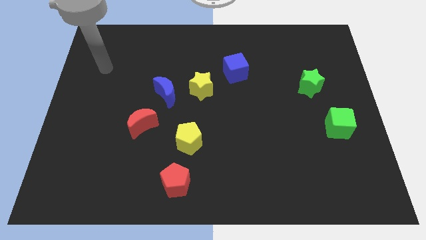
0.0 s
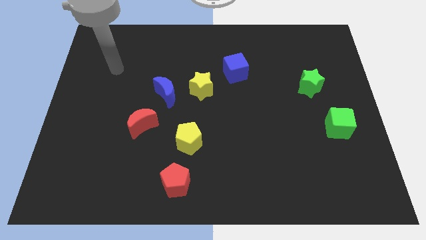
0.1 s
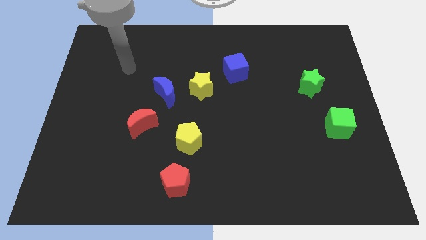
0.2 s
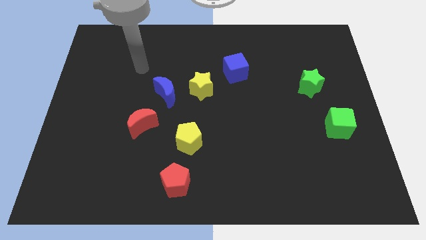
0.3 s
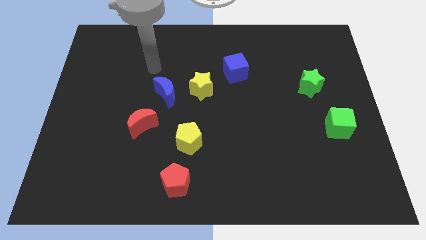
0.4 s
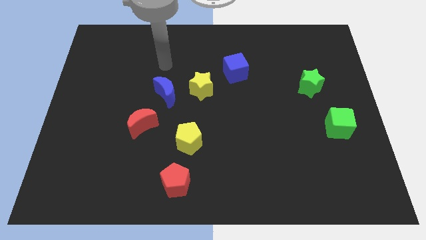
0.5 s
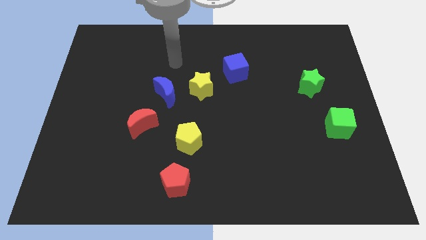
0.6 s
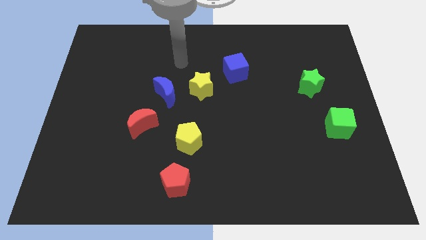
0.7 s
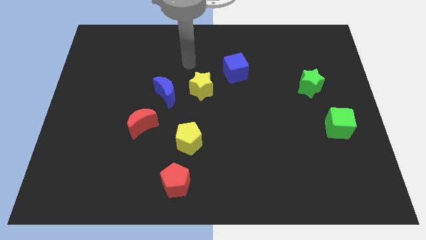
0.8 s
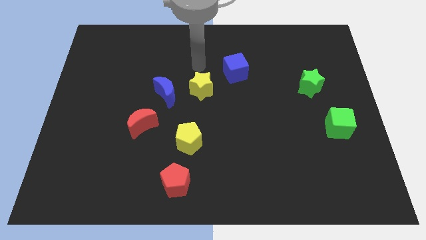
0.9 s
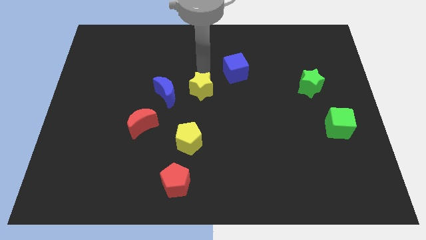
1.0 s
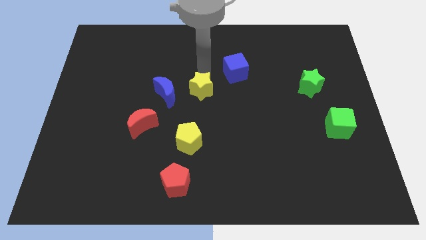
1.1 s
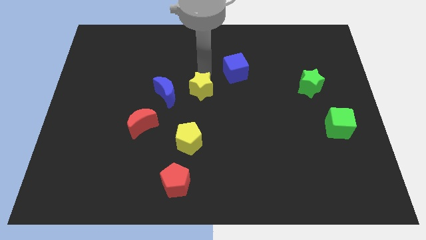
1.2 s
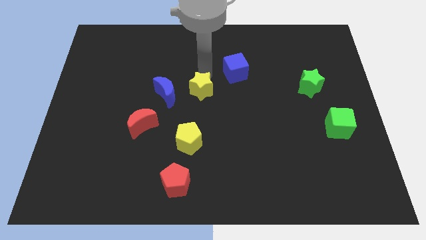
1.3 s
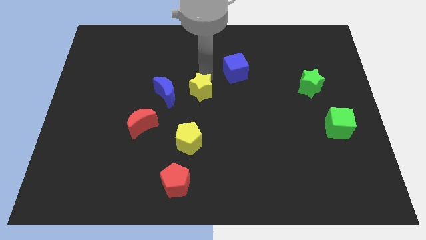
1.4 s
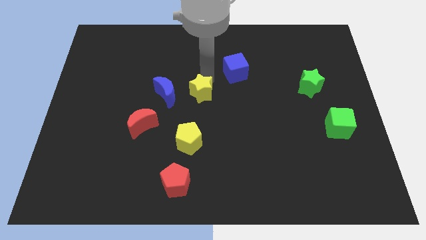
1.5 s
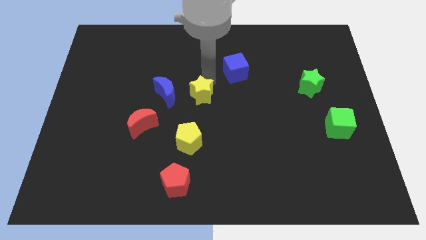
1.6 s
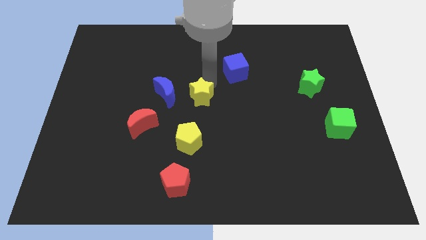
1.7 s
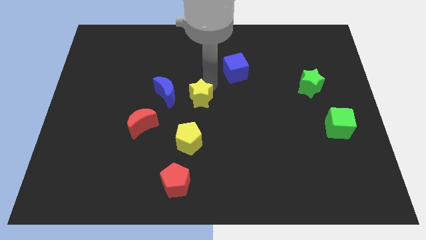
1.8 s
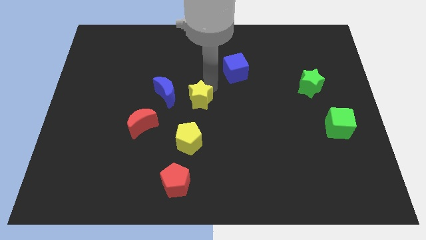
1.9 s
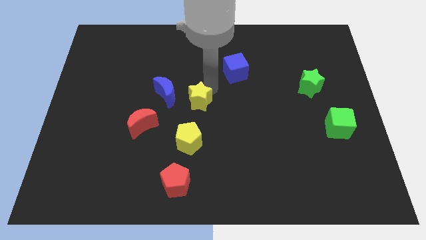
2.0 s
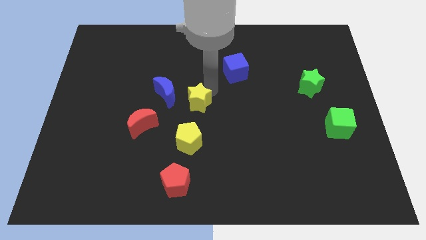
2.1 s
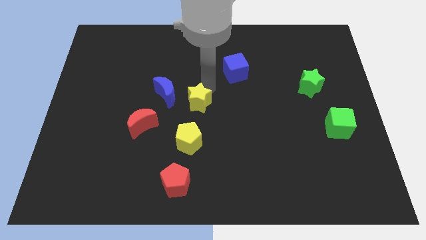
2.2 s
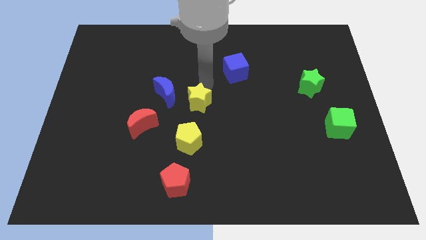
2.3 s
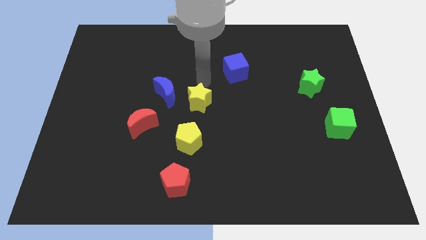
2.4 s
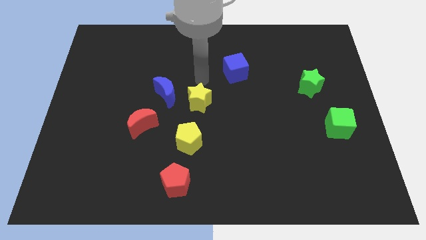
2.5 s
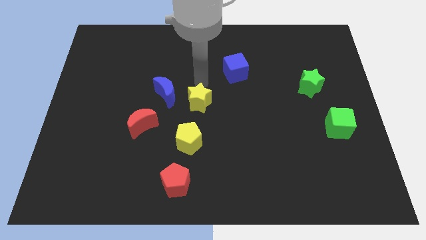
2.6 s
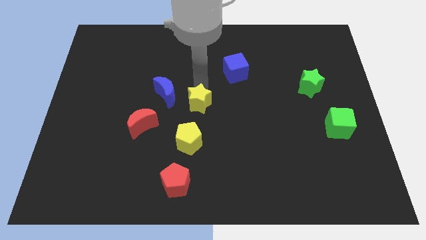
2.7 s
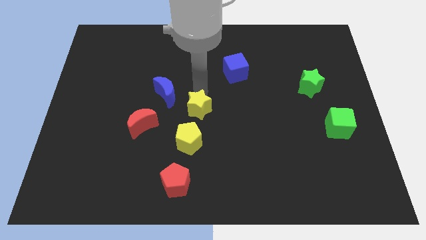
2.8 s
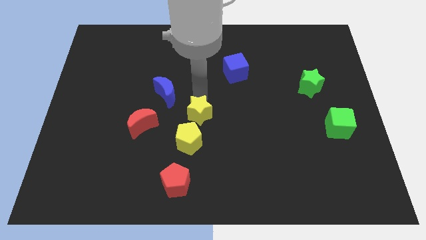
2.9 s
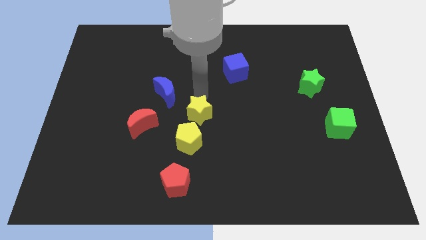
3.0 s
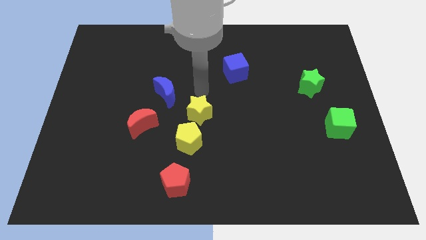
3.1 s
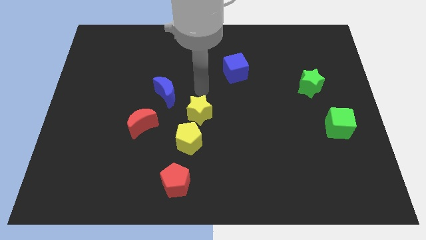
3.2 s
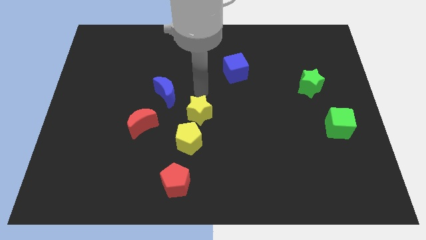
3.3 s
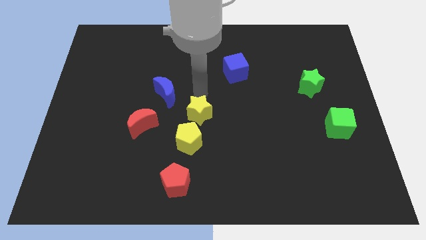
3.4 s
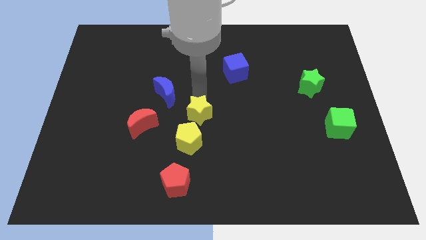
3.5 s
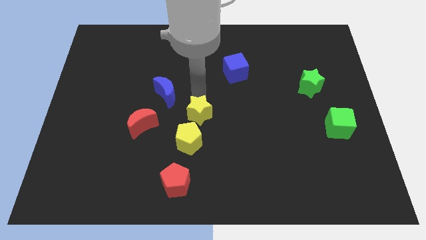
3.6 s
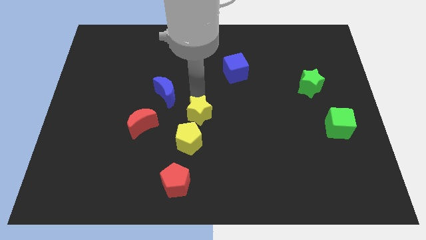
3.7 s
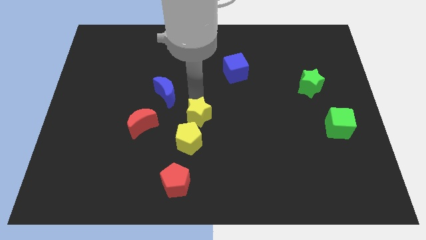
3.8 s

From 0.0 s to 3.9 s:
pull the yellow star apart from the blue moon and blue cube

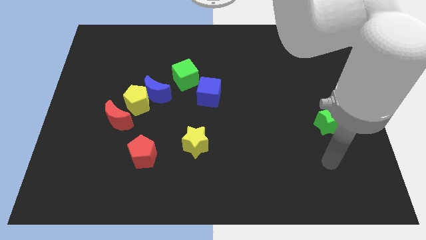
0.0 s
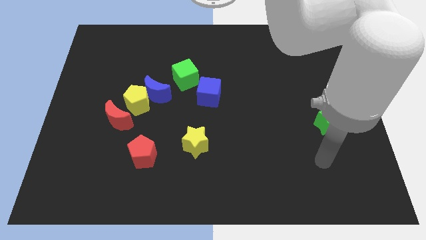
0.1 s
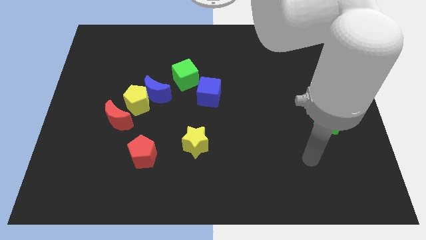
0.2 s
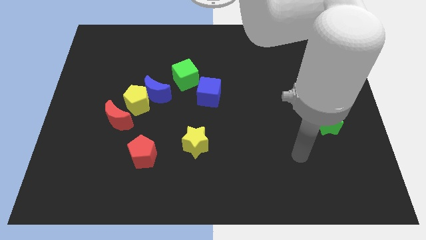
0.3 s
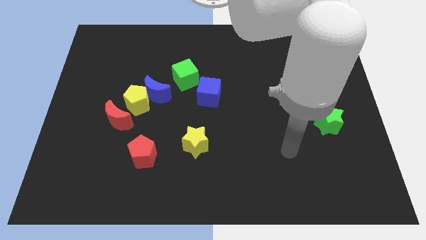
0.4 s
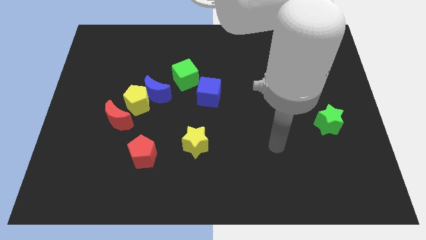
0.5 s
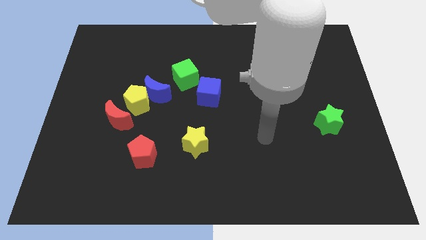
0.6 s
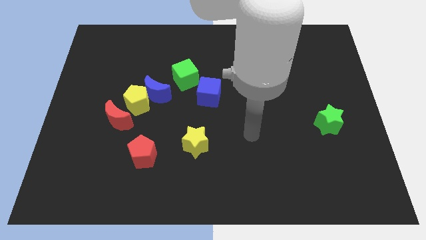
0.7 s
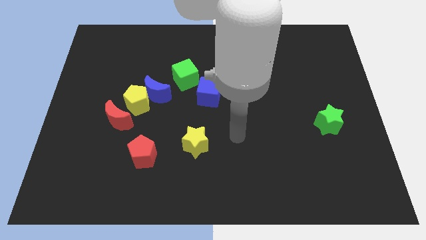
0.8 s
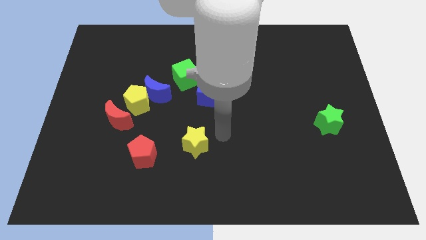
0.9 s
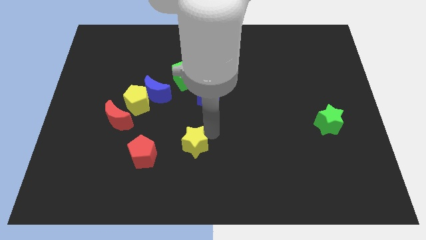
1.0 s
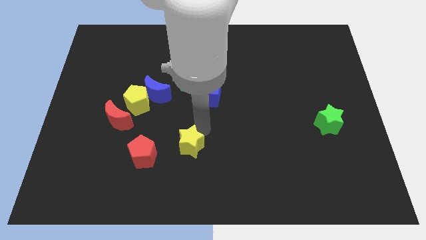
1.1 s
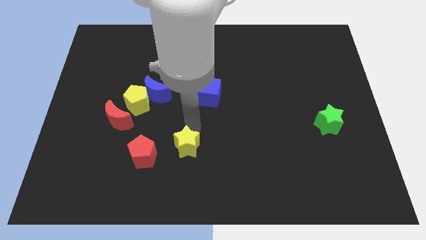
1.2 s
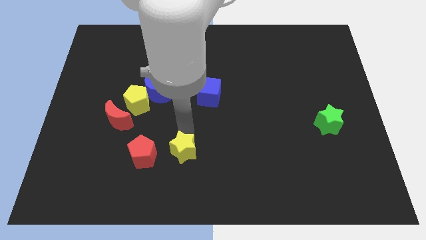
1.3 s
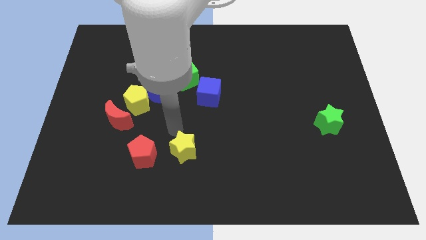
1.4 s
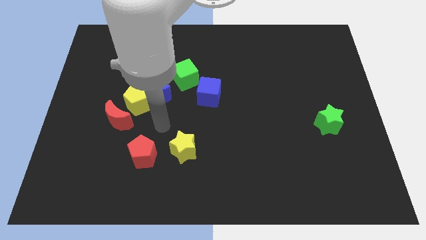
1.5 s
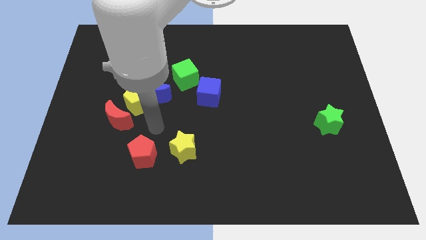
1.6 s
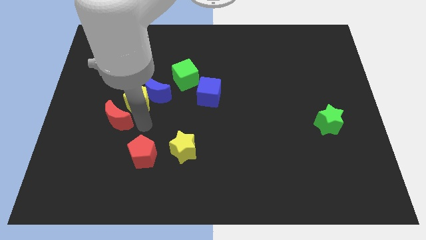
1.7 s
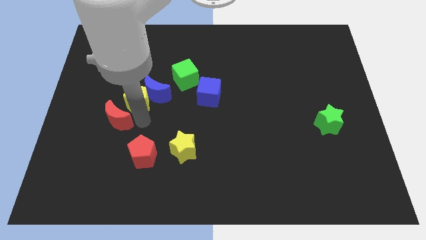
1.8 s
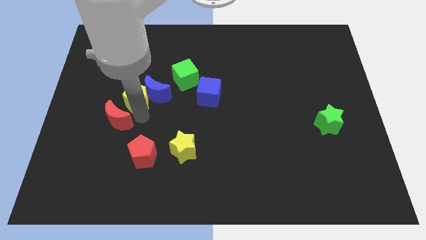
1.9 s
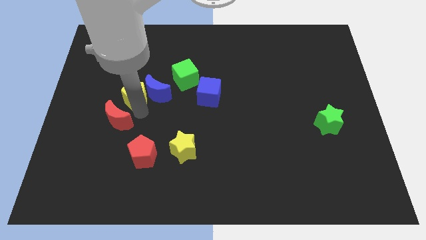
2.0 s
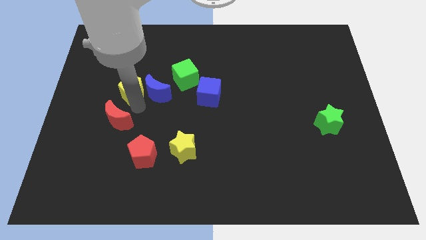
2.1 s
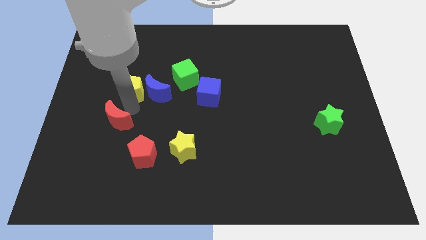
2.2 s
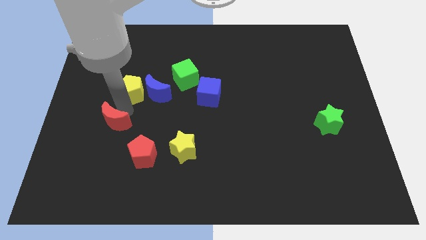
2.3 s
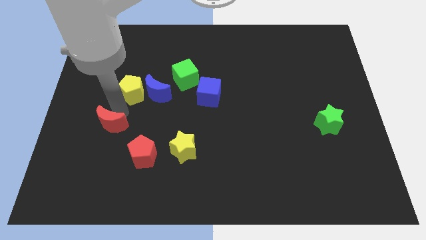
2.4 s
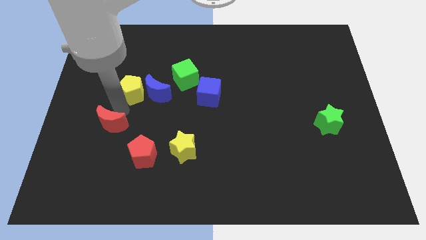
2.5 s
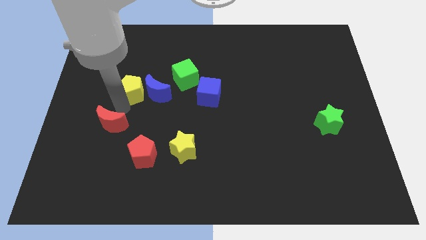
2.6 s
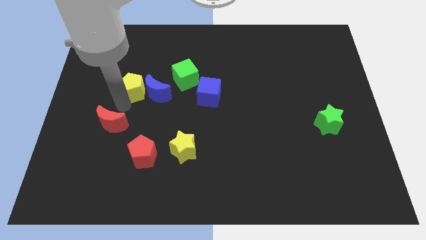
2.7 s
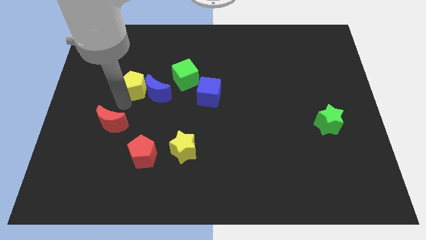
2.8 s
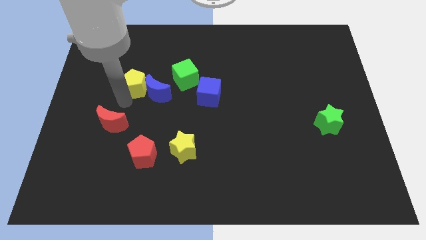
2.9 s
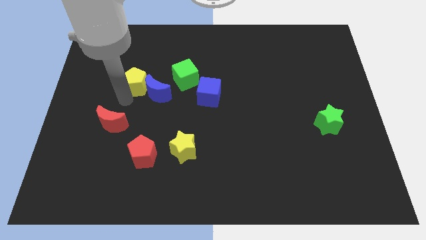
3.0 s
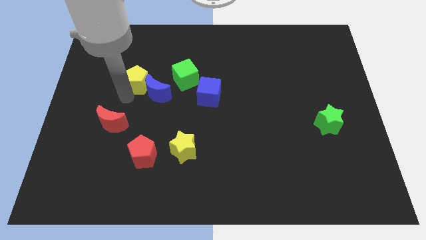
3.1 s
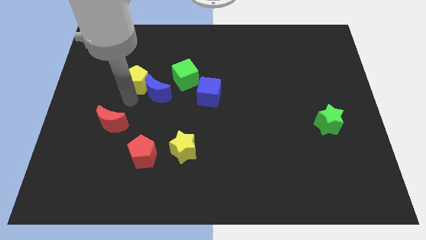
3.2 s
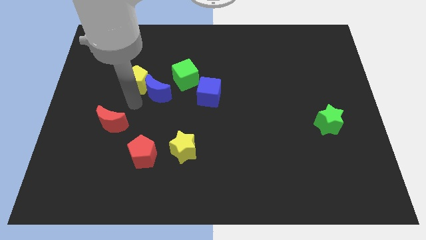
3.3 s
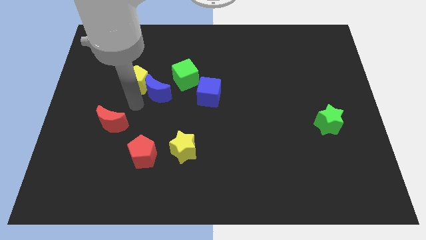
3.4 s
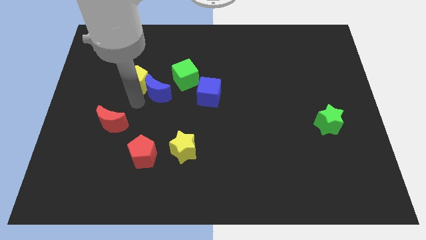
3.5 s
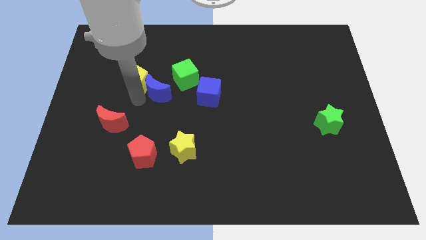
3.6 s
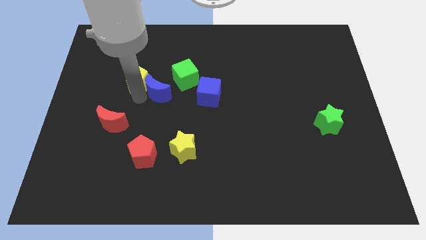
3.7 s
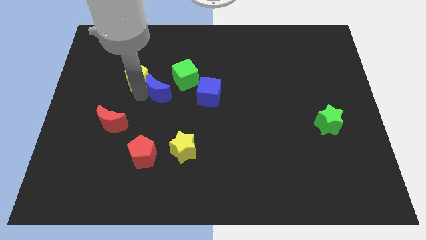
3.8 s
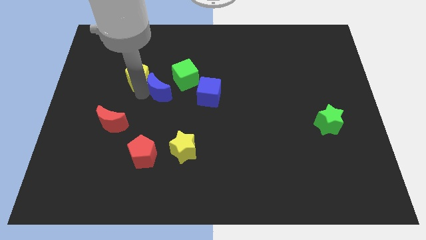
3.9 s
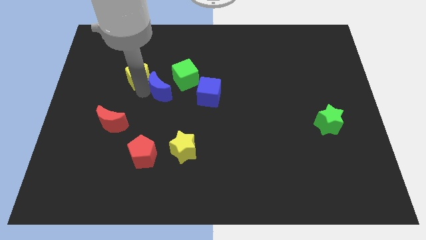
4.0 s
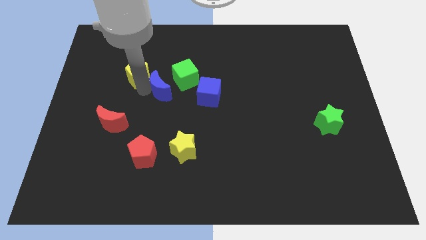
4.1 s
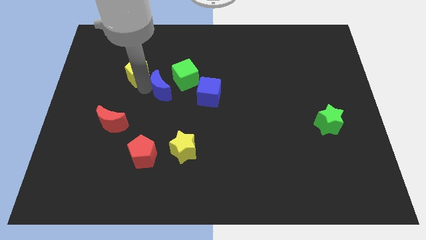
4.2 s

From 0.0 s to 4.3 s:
move the yellow pentagon away from the blue moon and red moon

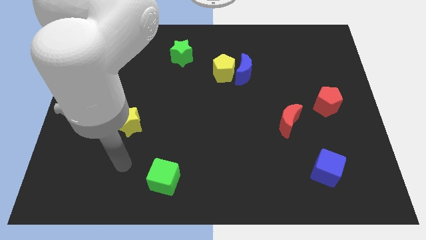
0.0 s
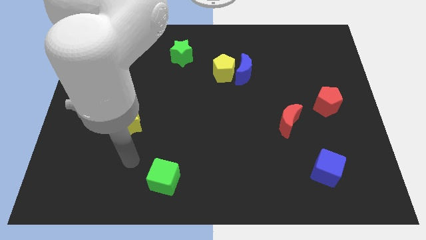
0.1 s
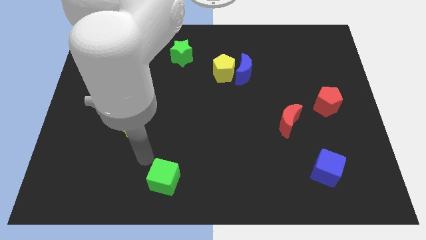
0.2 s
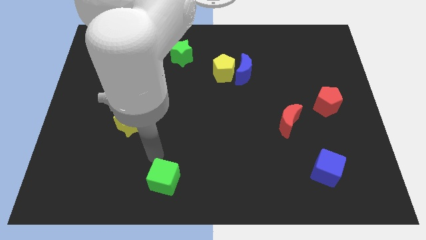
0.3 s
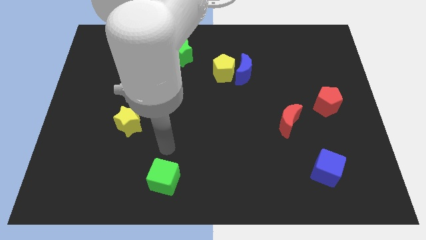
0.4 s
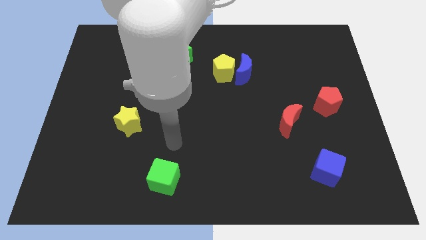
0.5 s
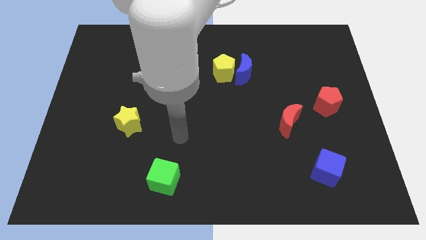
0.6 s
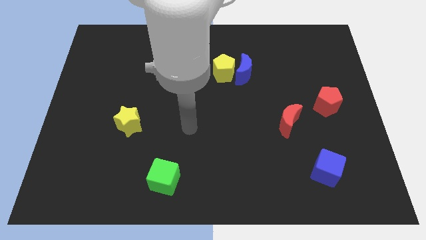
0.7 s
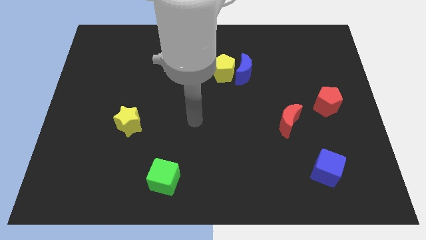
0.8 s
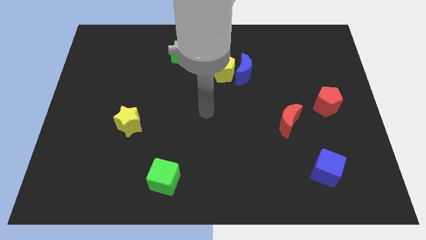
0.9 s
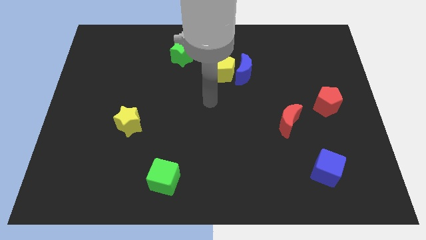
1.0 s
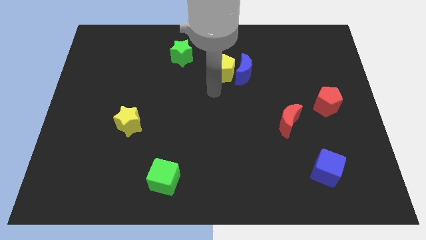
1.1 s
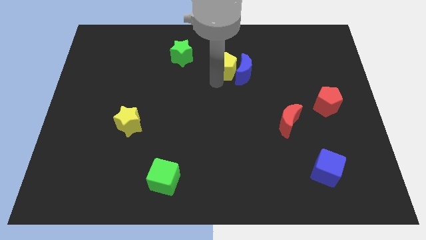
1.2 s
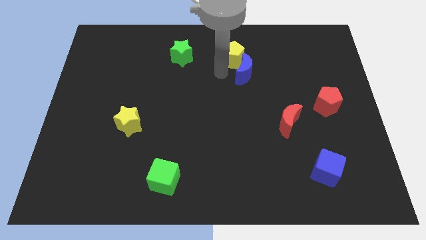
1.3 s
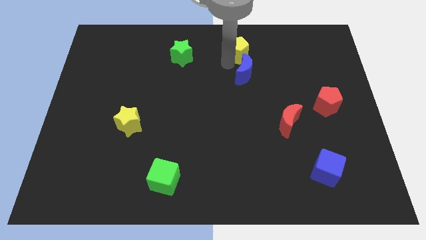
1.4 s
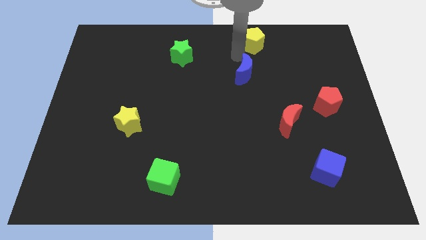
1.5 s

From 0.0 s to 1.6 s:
pull the blue moon apart from the yellow pentagon
